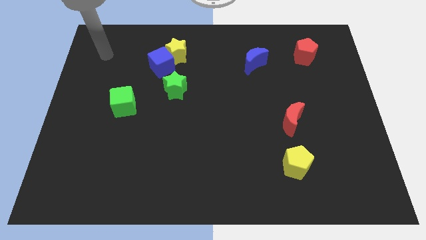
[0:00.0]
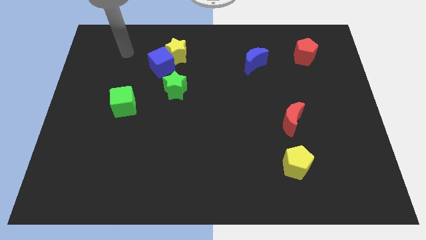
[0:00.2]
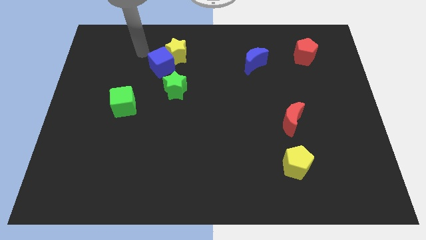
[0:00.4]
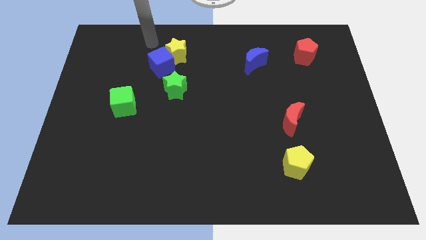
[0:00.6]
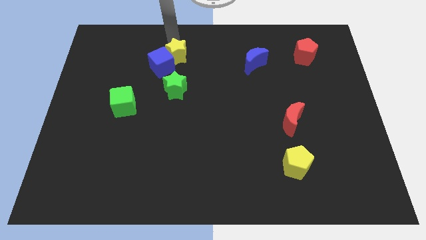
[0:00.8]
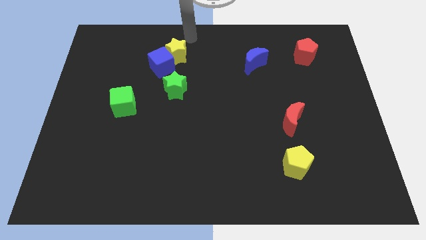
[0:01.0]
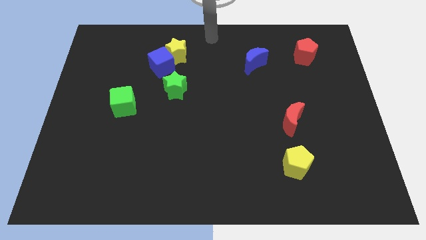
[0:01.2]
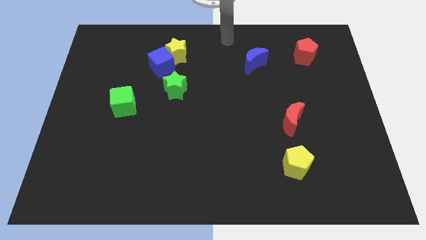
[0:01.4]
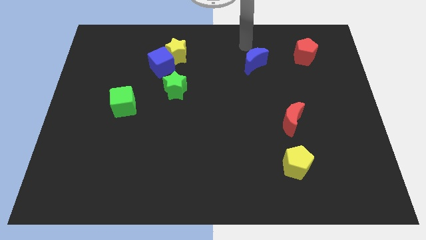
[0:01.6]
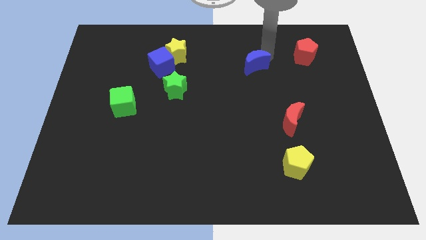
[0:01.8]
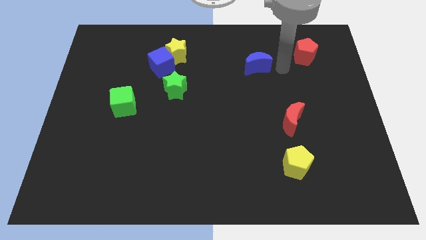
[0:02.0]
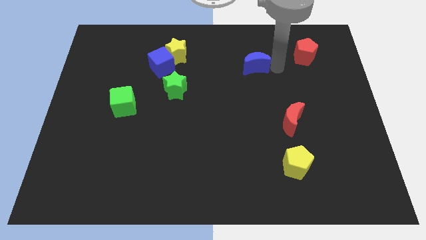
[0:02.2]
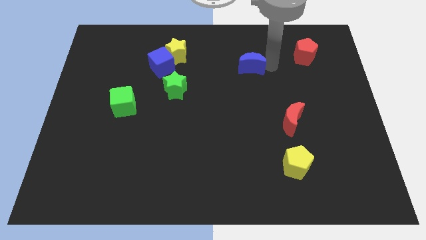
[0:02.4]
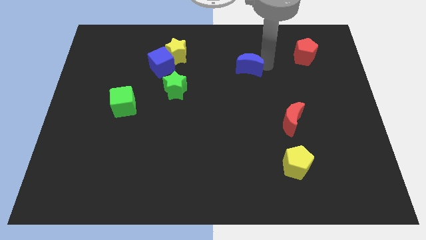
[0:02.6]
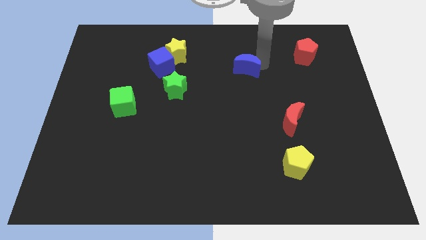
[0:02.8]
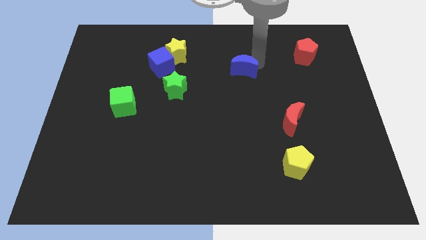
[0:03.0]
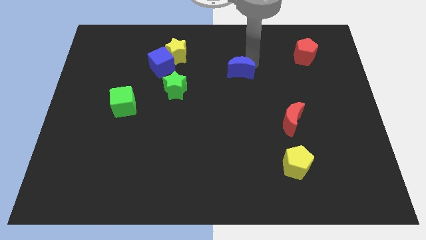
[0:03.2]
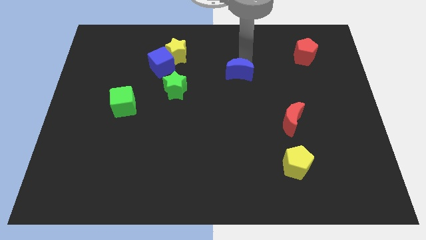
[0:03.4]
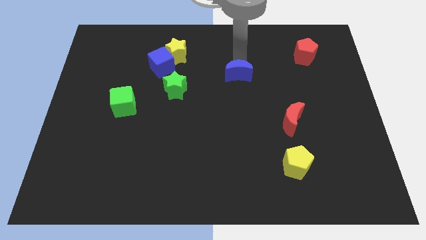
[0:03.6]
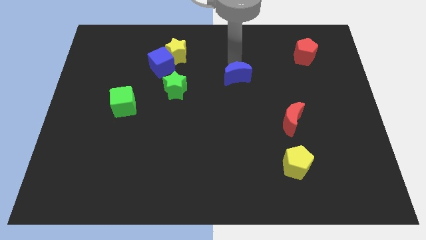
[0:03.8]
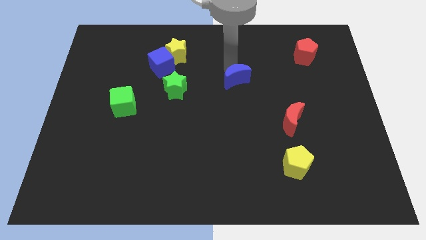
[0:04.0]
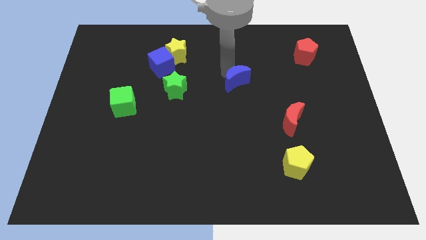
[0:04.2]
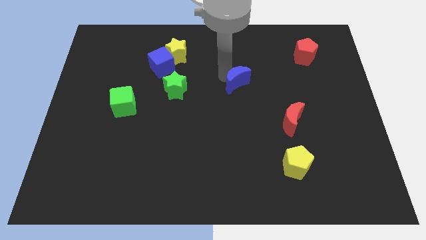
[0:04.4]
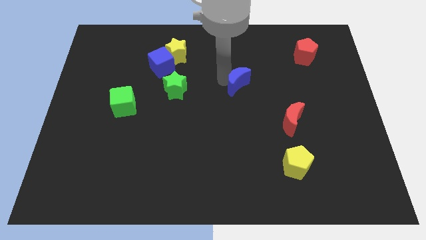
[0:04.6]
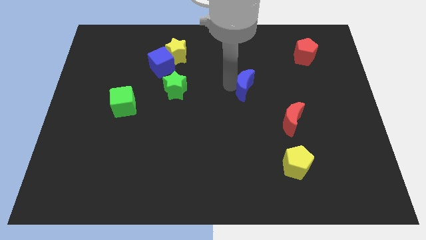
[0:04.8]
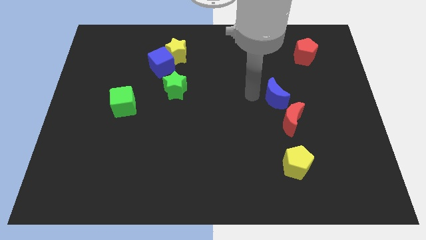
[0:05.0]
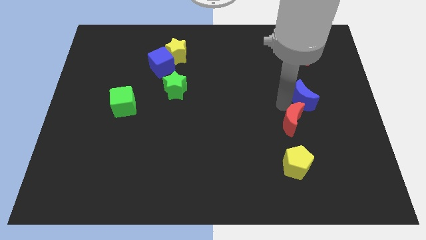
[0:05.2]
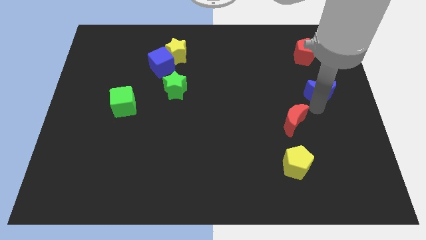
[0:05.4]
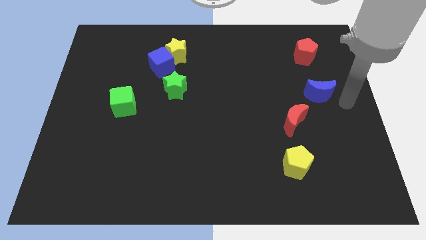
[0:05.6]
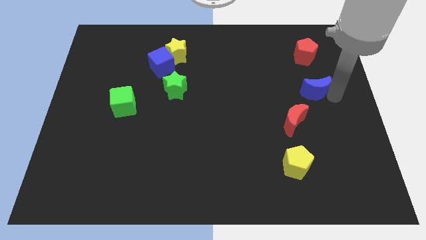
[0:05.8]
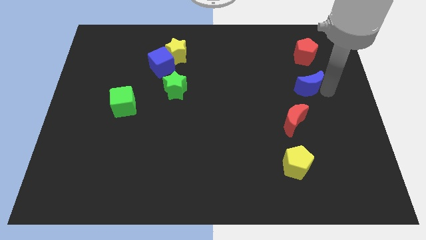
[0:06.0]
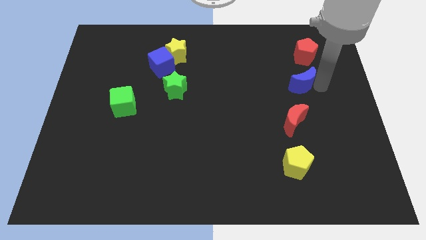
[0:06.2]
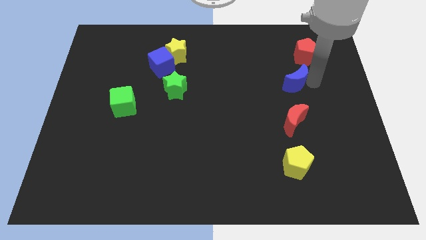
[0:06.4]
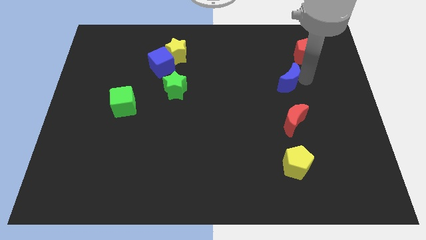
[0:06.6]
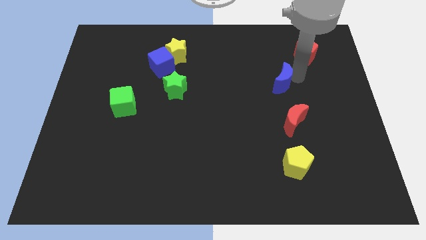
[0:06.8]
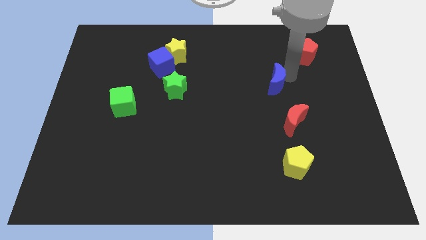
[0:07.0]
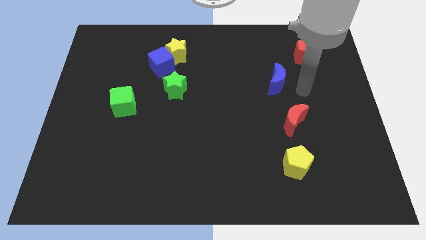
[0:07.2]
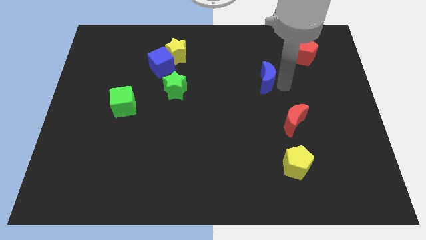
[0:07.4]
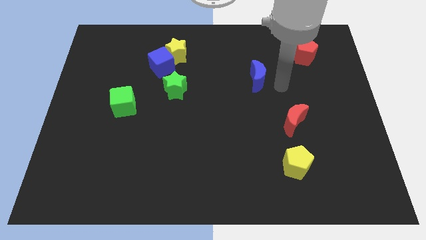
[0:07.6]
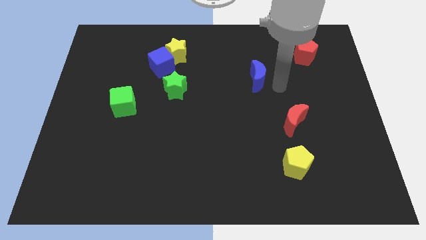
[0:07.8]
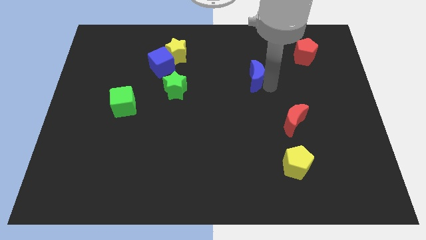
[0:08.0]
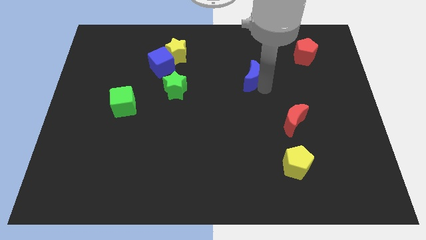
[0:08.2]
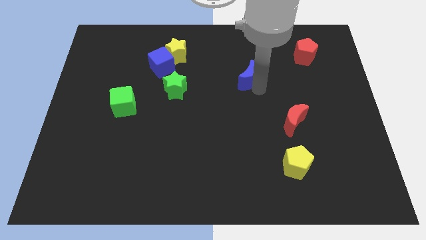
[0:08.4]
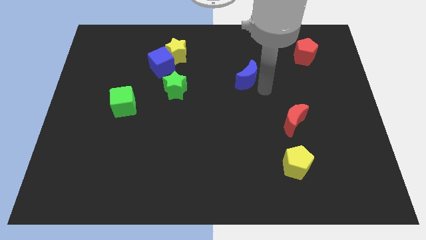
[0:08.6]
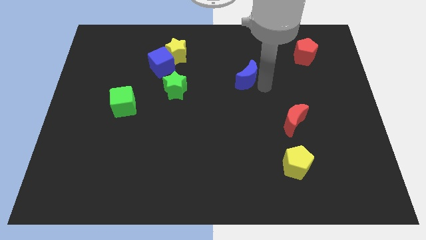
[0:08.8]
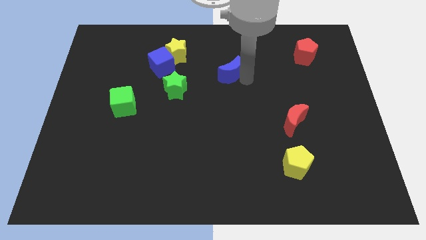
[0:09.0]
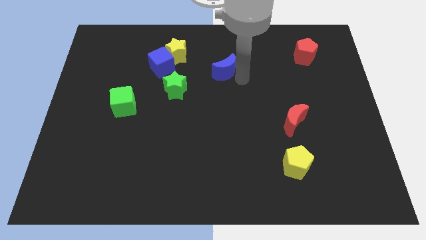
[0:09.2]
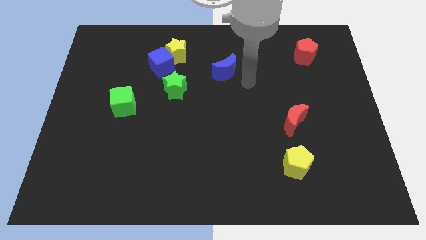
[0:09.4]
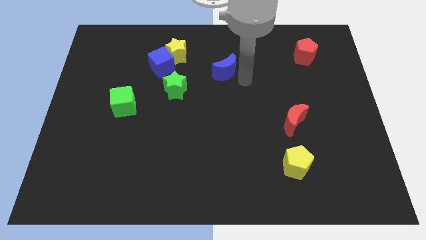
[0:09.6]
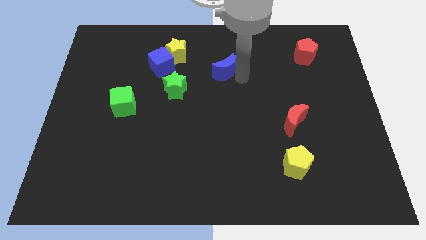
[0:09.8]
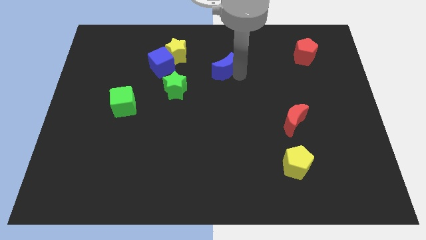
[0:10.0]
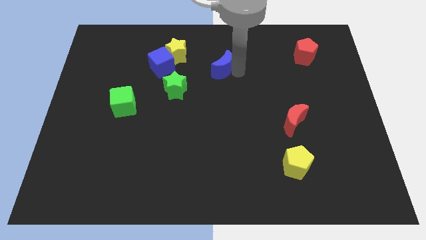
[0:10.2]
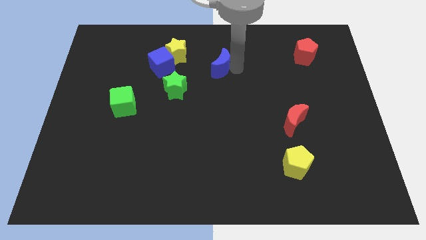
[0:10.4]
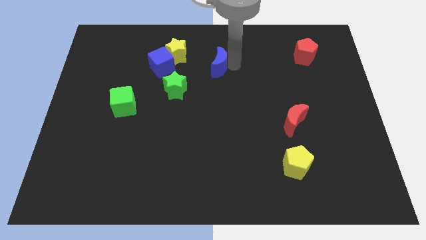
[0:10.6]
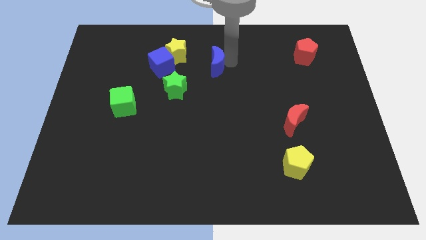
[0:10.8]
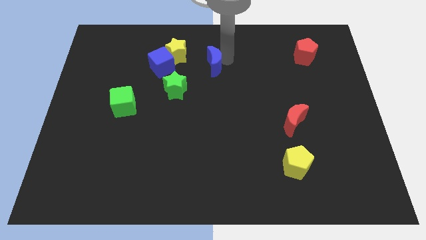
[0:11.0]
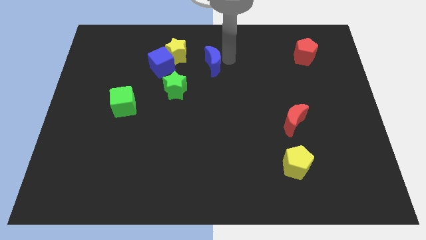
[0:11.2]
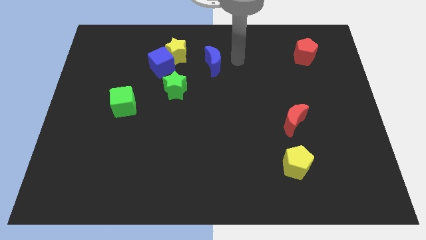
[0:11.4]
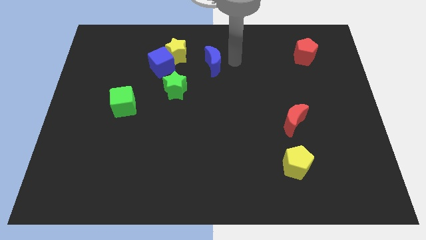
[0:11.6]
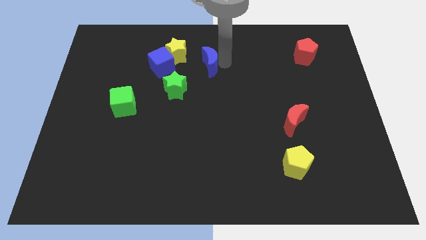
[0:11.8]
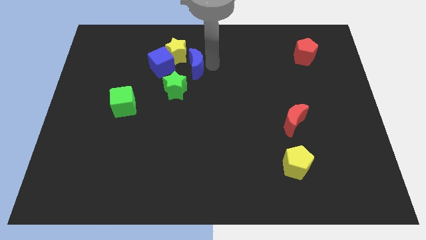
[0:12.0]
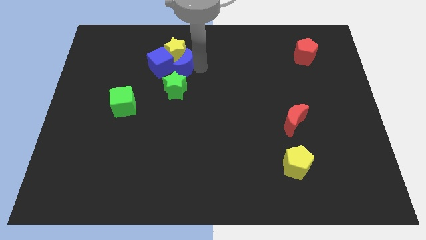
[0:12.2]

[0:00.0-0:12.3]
move the blue moon to the blue cube
